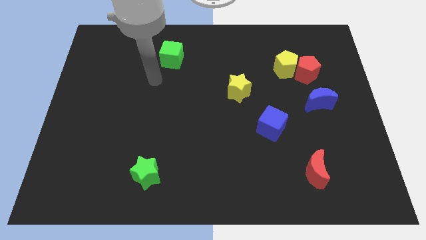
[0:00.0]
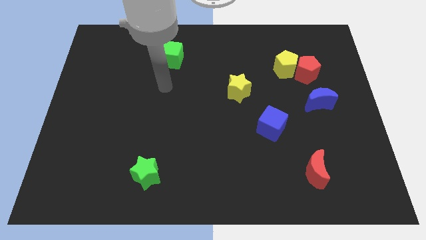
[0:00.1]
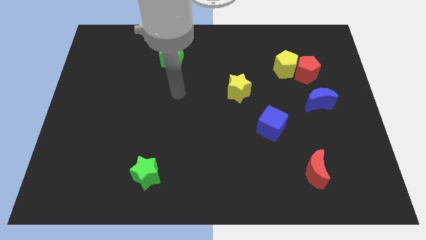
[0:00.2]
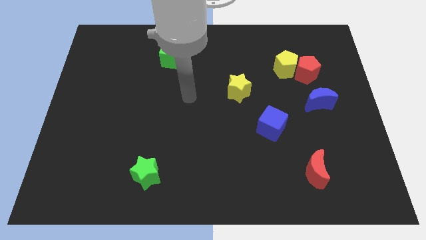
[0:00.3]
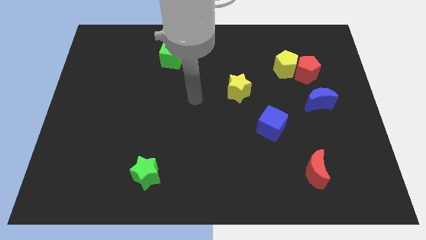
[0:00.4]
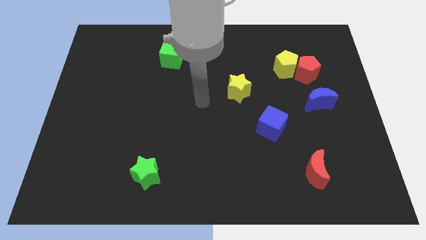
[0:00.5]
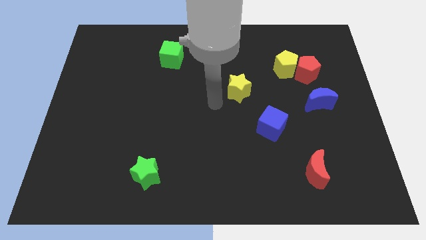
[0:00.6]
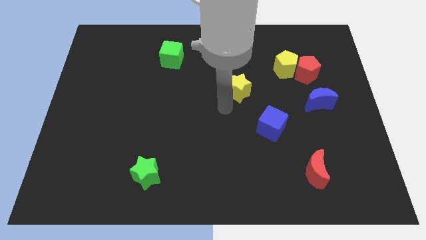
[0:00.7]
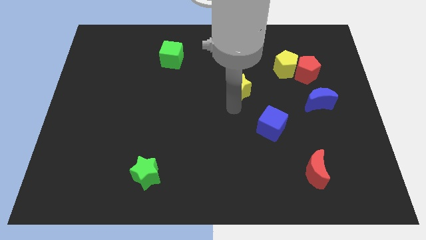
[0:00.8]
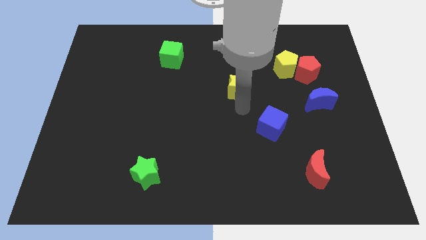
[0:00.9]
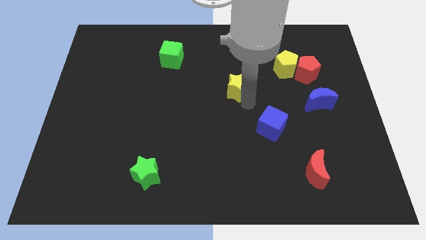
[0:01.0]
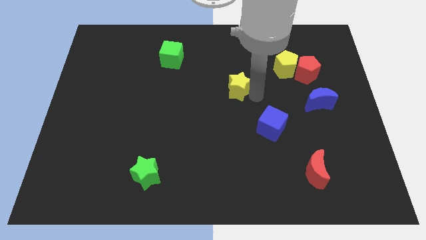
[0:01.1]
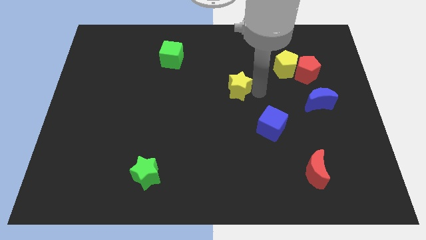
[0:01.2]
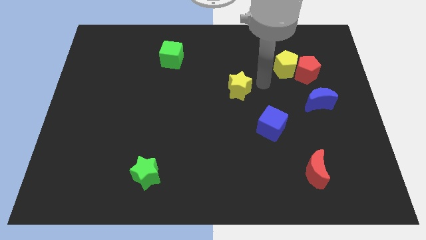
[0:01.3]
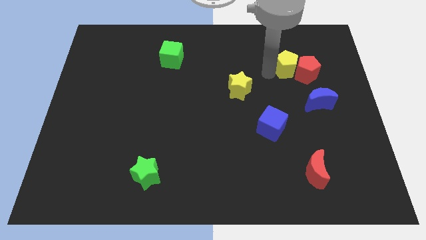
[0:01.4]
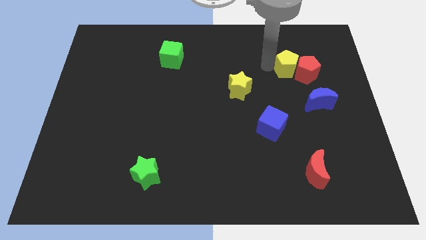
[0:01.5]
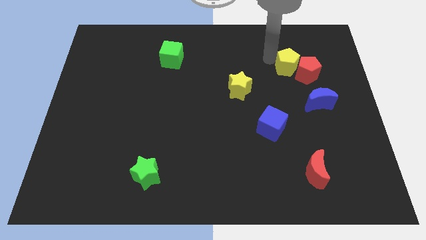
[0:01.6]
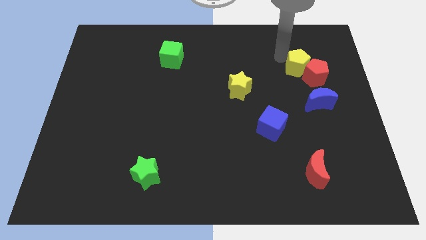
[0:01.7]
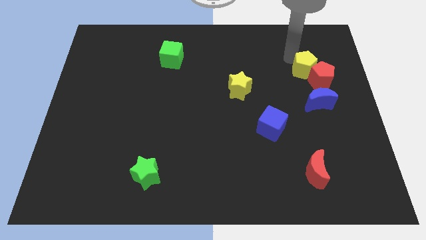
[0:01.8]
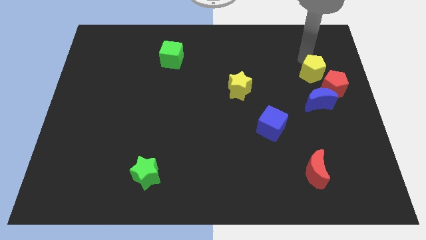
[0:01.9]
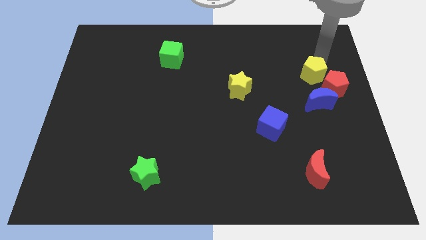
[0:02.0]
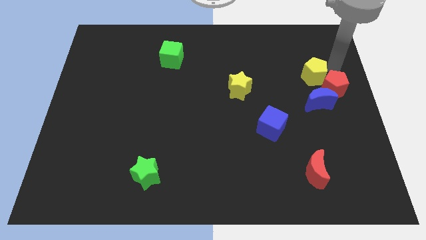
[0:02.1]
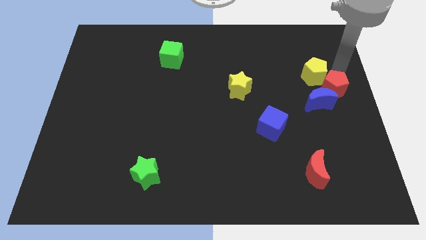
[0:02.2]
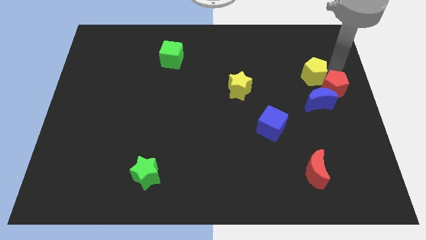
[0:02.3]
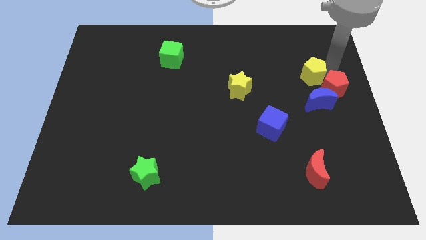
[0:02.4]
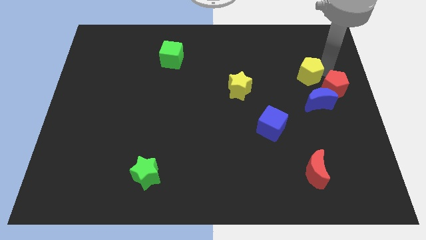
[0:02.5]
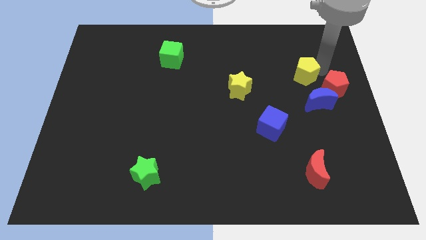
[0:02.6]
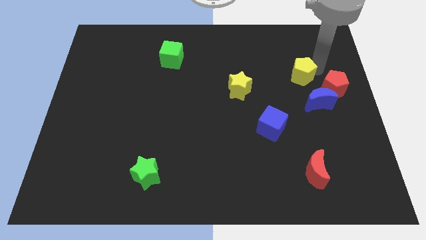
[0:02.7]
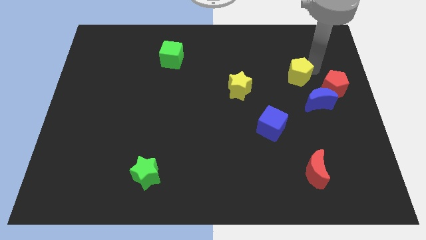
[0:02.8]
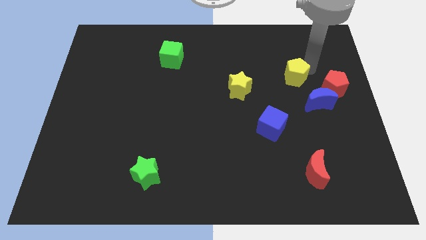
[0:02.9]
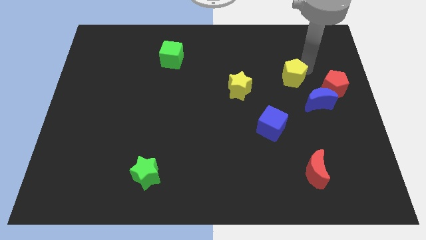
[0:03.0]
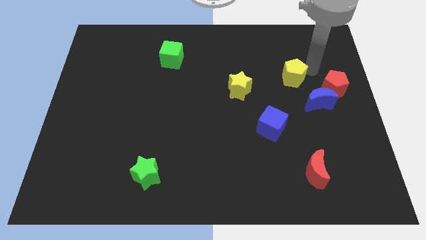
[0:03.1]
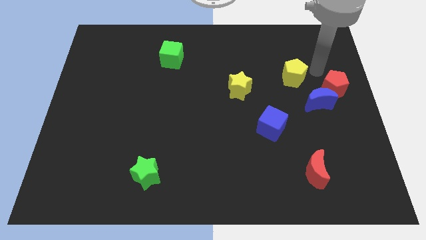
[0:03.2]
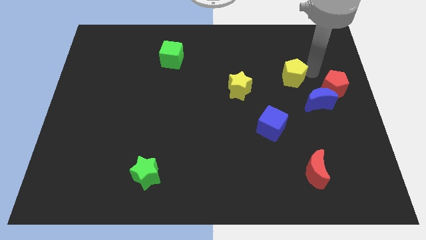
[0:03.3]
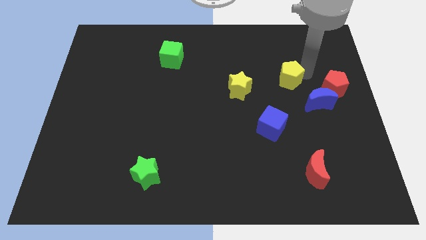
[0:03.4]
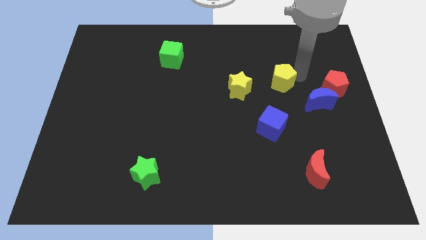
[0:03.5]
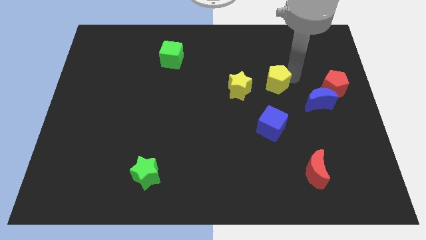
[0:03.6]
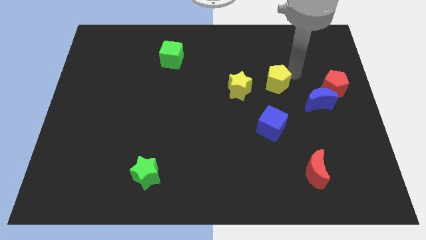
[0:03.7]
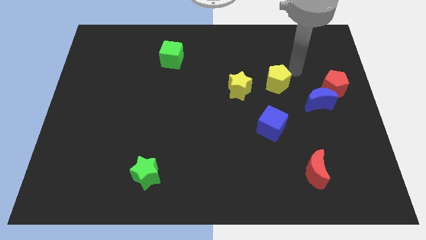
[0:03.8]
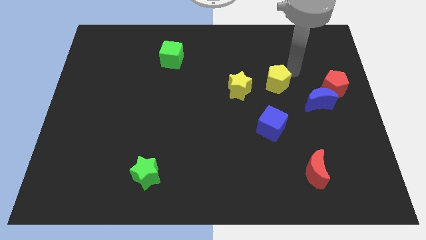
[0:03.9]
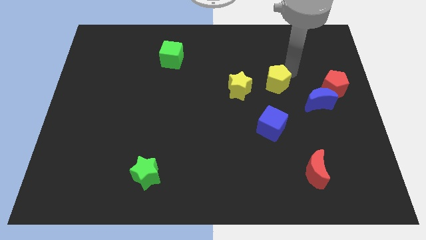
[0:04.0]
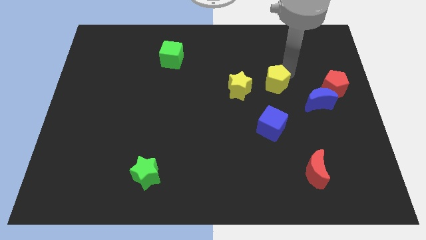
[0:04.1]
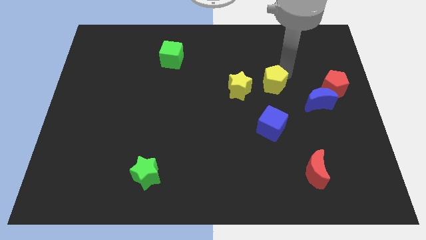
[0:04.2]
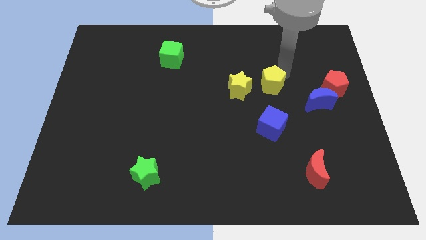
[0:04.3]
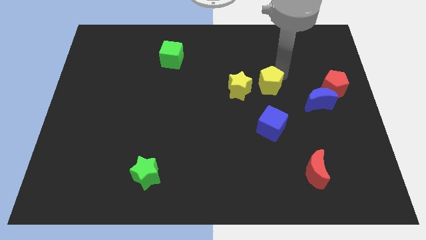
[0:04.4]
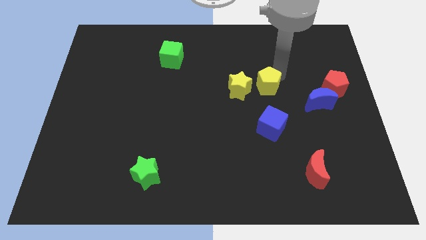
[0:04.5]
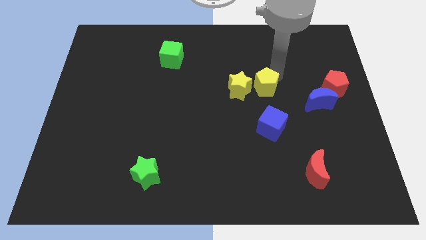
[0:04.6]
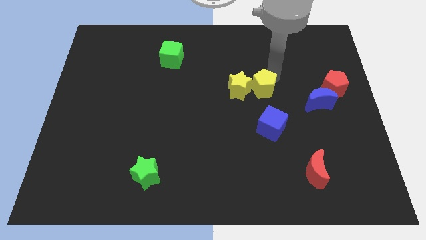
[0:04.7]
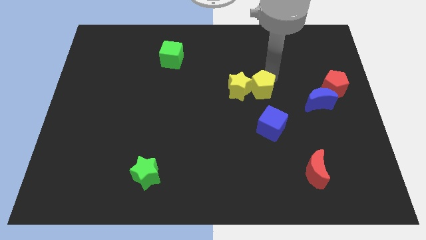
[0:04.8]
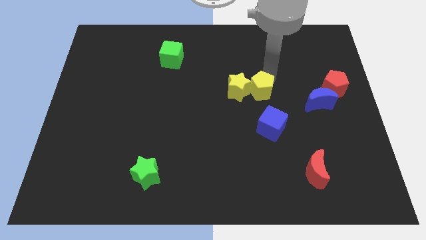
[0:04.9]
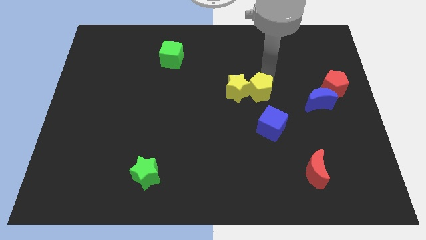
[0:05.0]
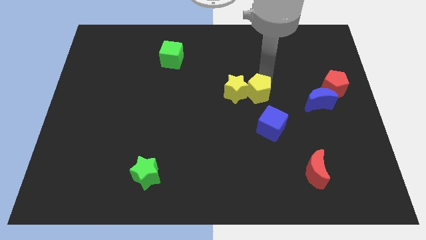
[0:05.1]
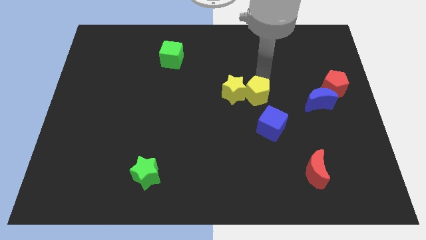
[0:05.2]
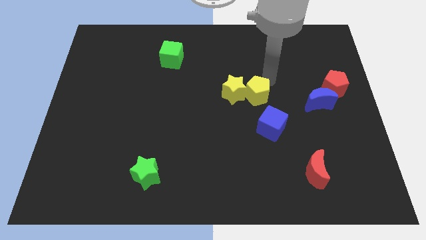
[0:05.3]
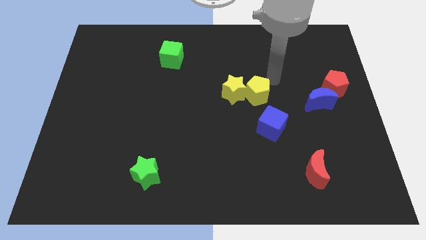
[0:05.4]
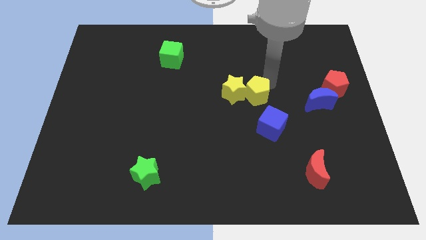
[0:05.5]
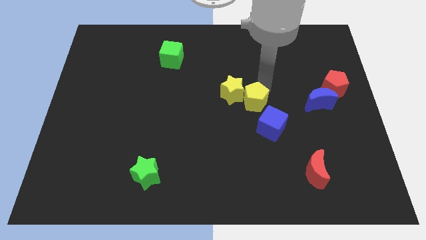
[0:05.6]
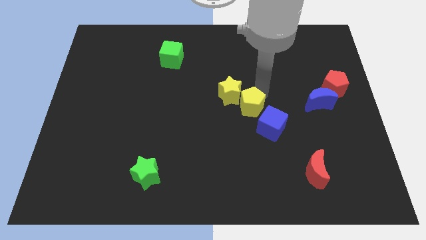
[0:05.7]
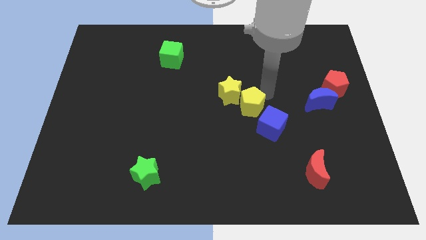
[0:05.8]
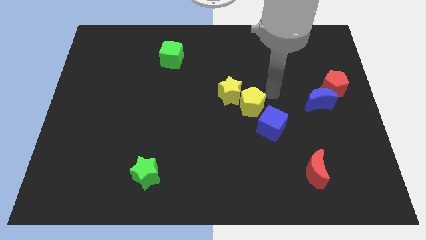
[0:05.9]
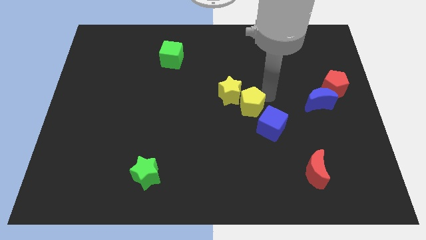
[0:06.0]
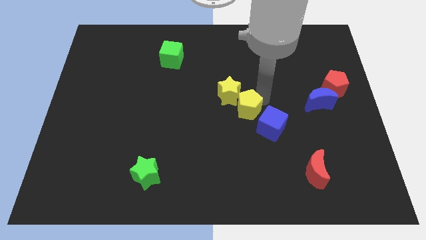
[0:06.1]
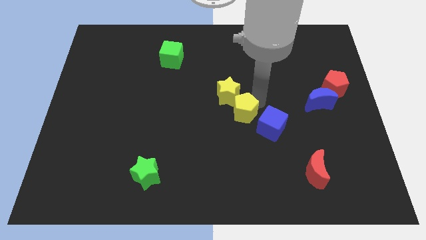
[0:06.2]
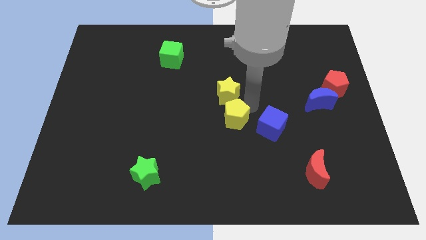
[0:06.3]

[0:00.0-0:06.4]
push the yellow pentagon diagonally downwards and to the left

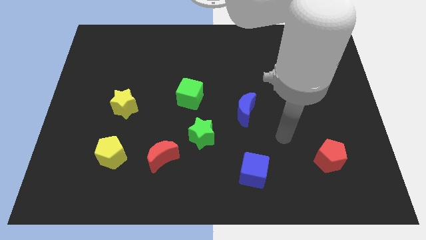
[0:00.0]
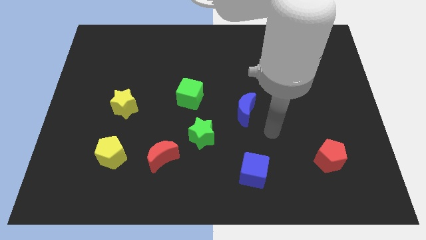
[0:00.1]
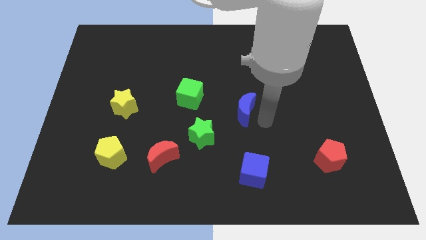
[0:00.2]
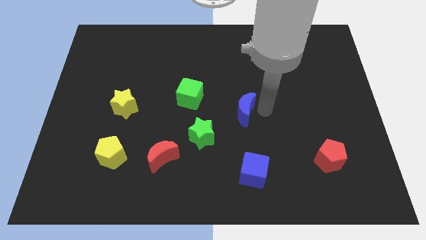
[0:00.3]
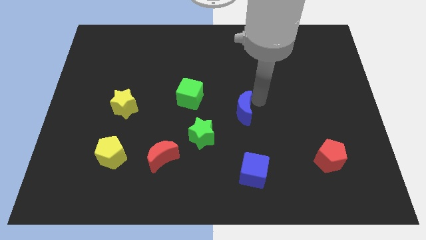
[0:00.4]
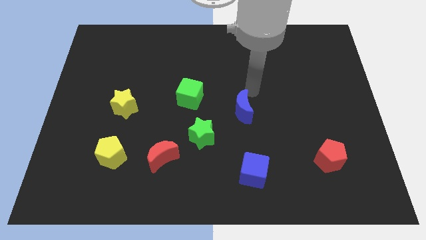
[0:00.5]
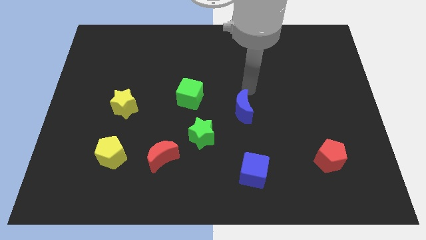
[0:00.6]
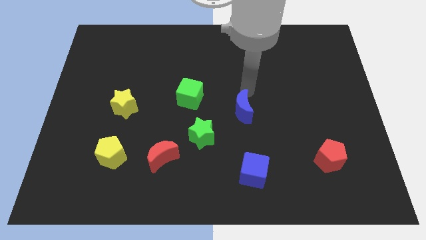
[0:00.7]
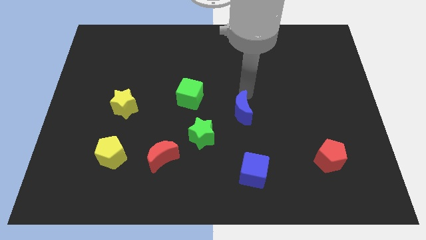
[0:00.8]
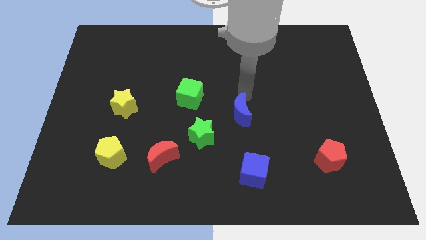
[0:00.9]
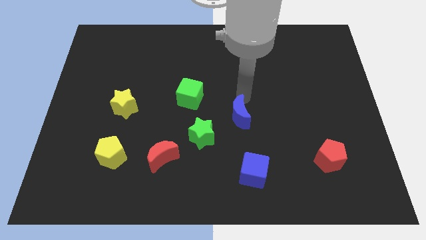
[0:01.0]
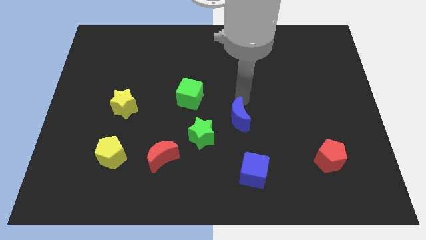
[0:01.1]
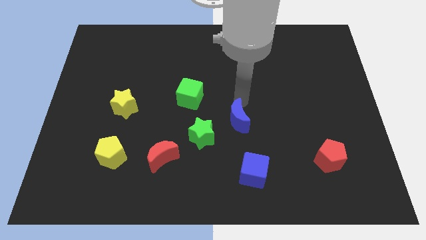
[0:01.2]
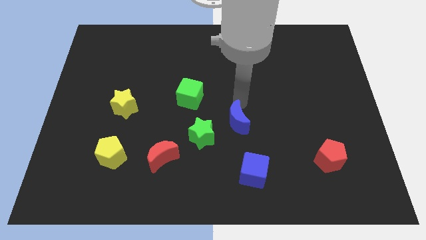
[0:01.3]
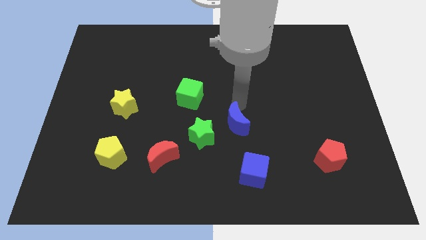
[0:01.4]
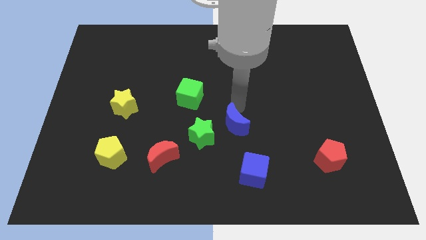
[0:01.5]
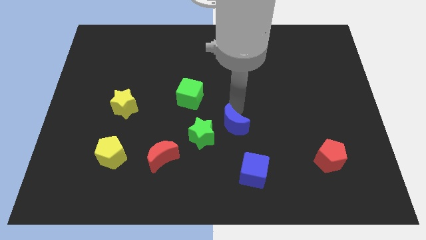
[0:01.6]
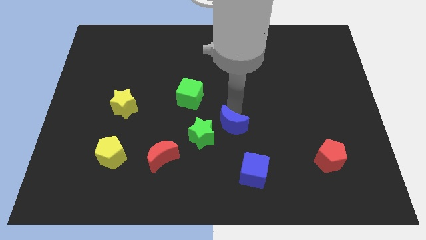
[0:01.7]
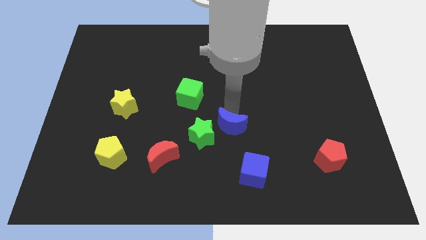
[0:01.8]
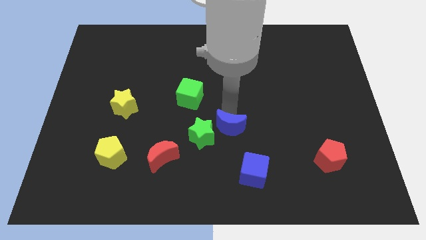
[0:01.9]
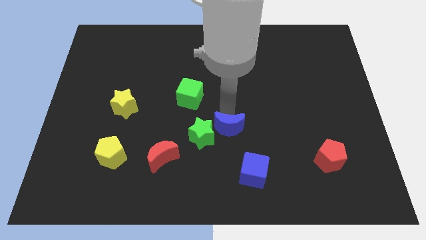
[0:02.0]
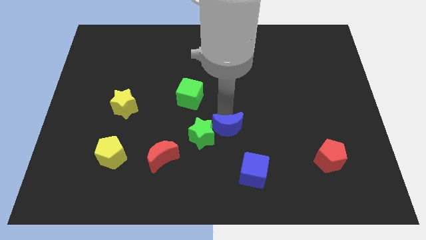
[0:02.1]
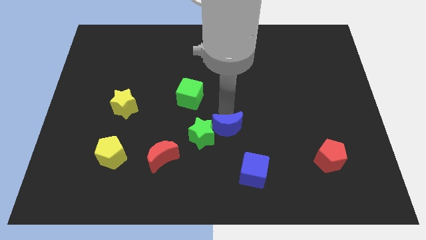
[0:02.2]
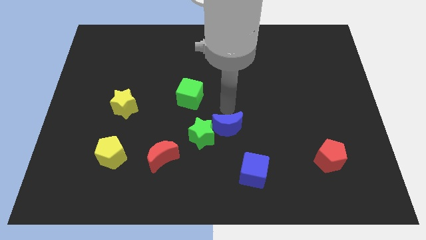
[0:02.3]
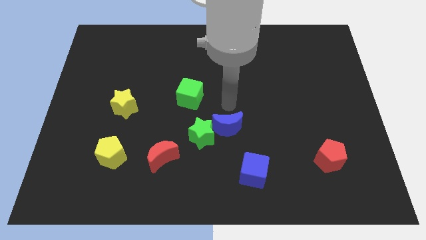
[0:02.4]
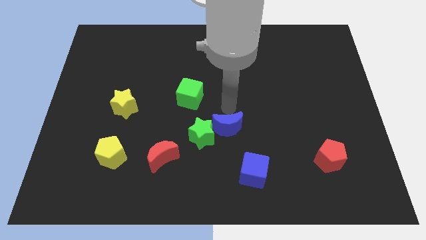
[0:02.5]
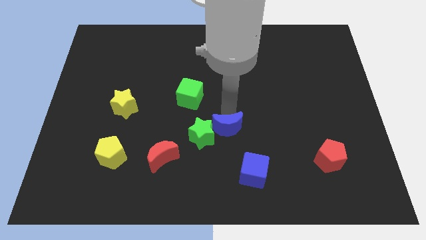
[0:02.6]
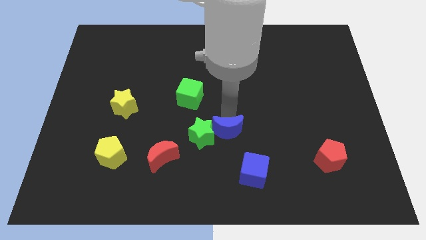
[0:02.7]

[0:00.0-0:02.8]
slightly move the blue moon downwards and to the left
